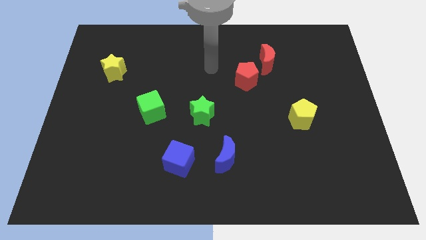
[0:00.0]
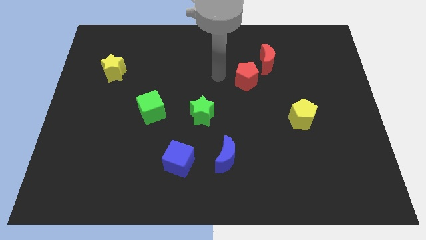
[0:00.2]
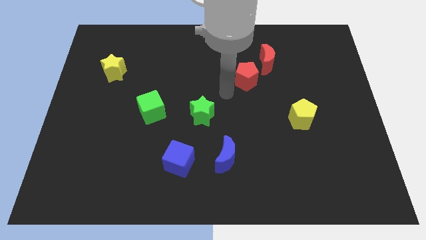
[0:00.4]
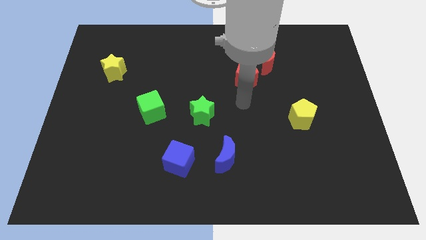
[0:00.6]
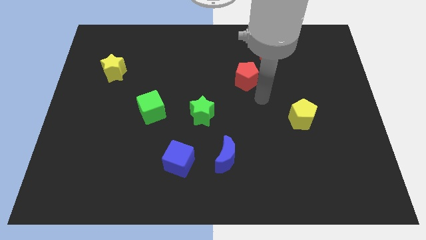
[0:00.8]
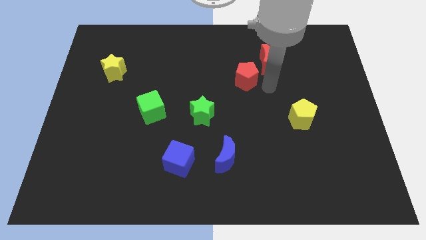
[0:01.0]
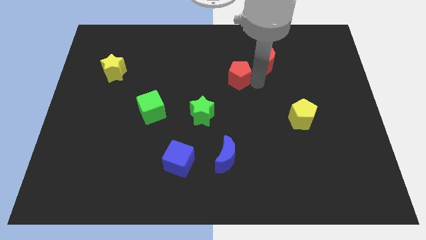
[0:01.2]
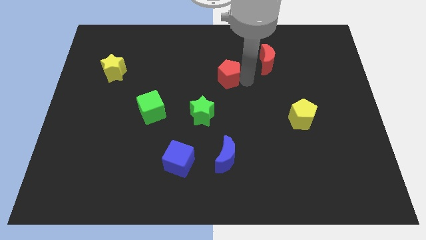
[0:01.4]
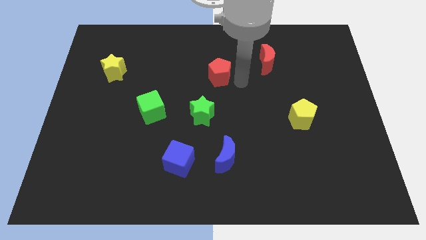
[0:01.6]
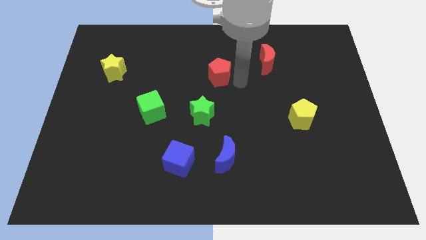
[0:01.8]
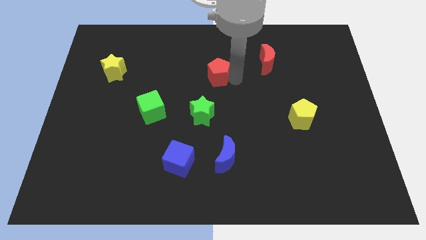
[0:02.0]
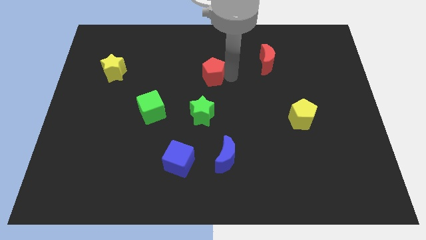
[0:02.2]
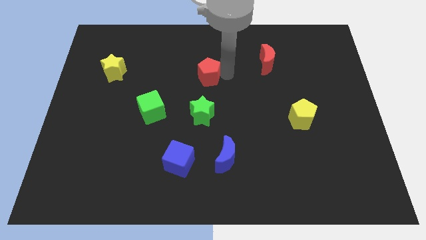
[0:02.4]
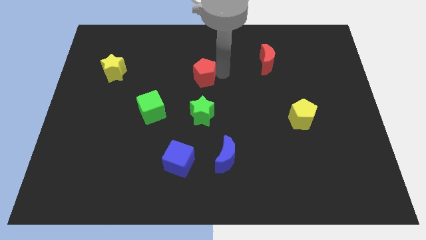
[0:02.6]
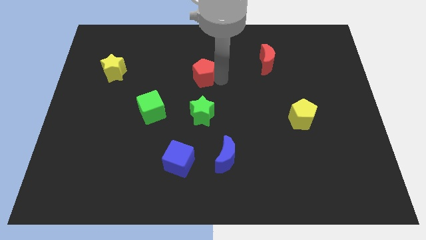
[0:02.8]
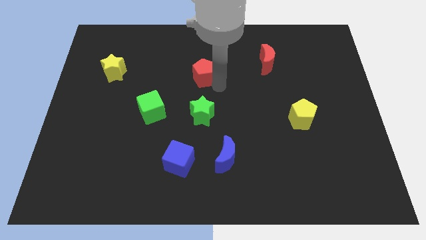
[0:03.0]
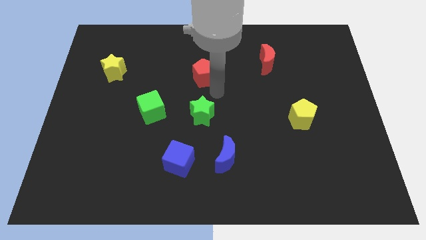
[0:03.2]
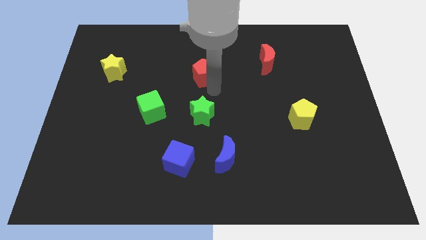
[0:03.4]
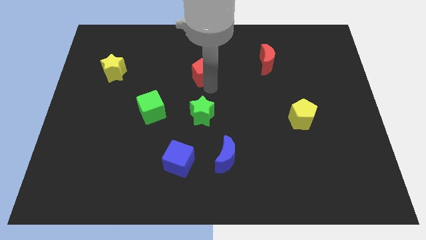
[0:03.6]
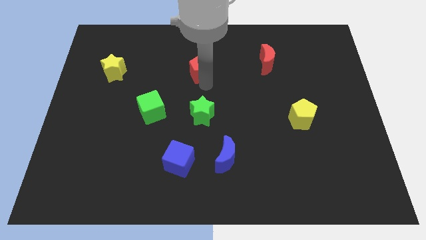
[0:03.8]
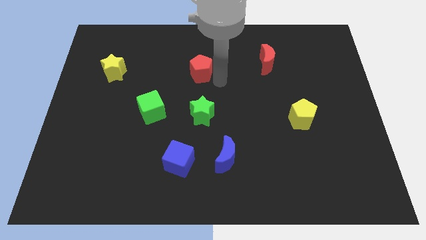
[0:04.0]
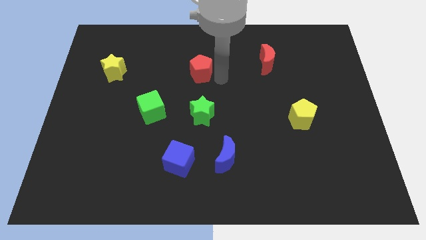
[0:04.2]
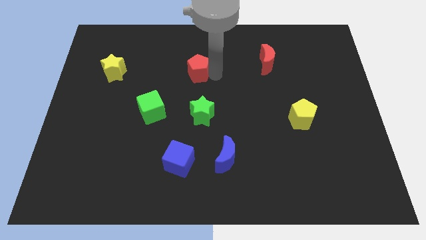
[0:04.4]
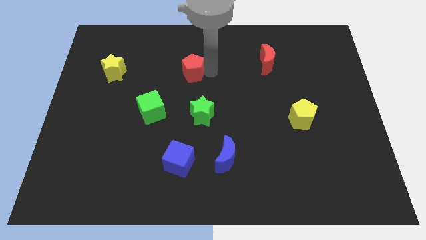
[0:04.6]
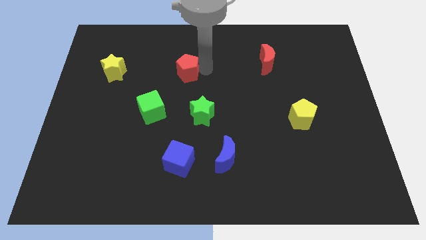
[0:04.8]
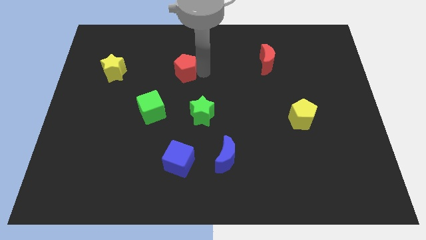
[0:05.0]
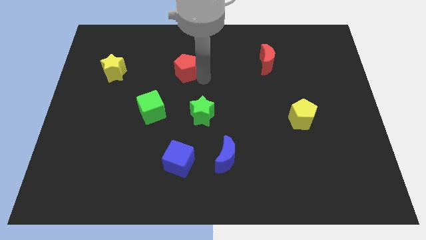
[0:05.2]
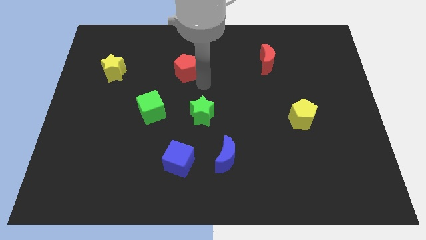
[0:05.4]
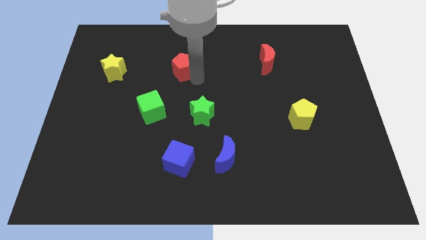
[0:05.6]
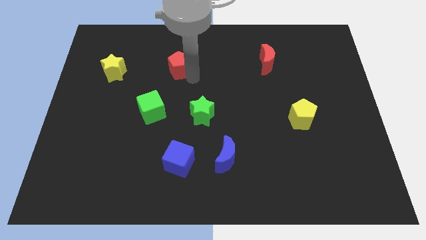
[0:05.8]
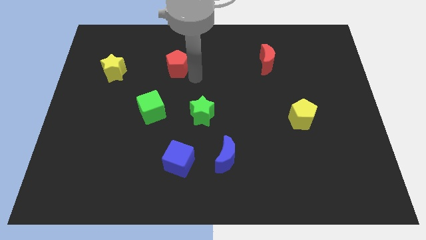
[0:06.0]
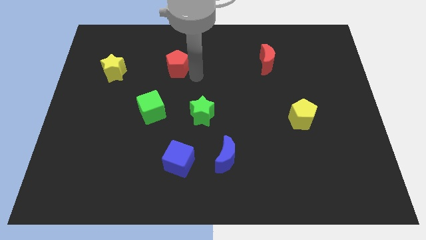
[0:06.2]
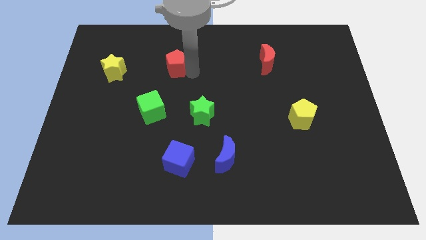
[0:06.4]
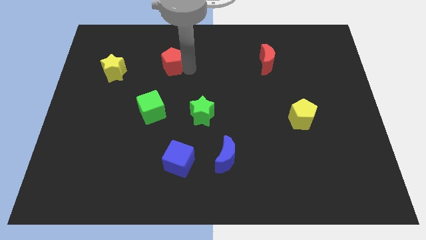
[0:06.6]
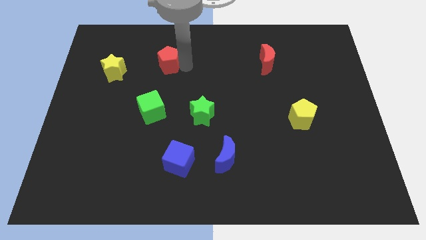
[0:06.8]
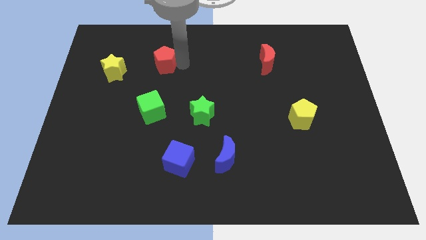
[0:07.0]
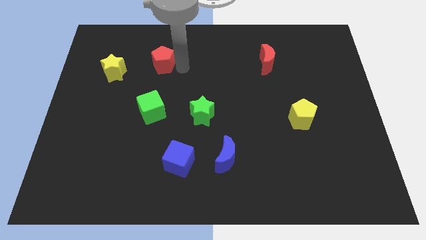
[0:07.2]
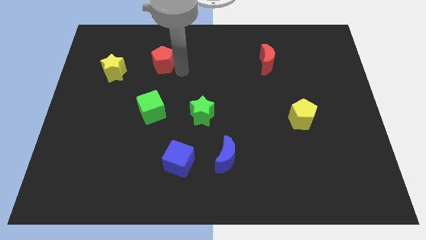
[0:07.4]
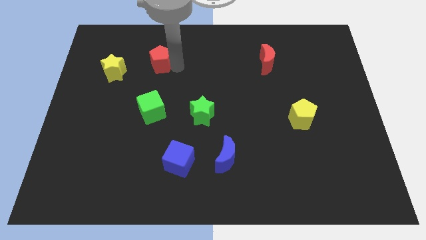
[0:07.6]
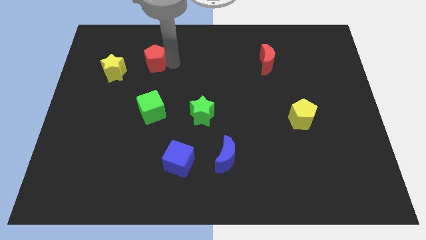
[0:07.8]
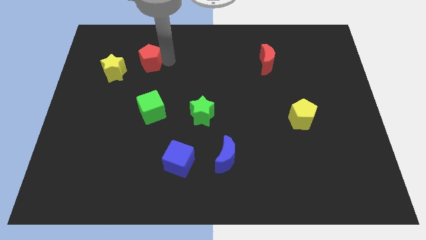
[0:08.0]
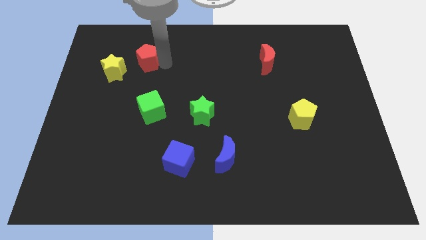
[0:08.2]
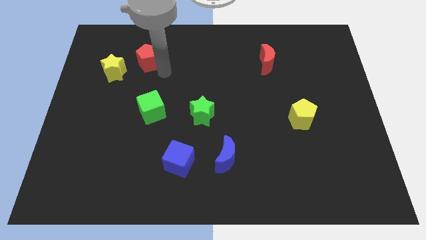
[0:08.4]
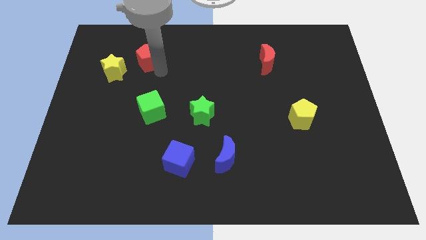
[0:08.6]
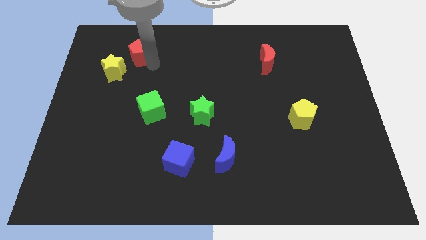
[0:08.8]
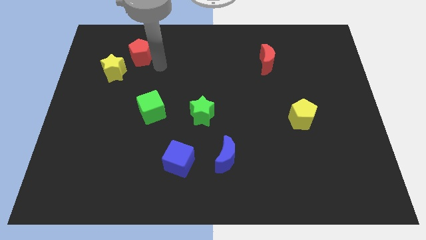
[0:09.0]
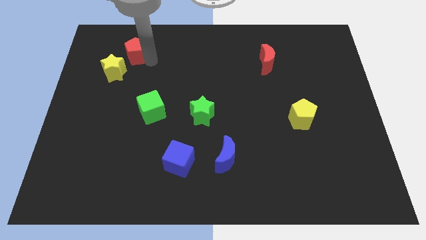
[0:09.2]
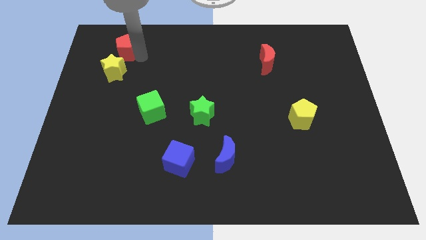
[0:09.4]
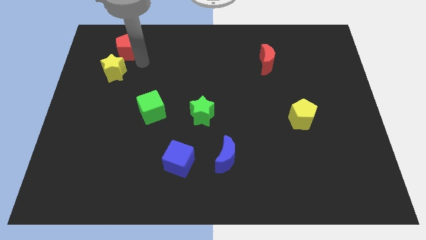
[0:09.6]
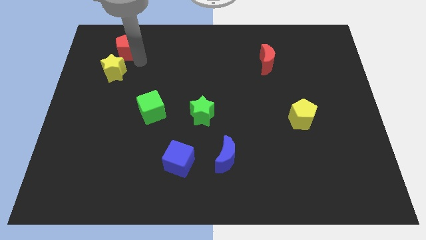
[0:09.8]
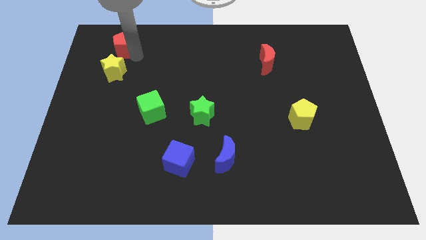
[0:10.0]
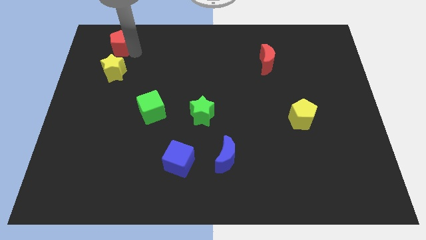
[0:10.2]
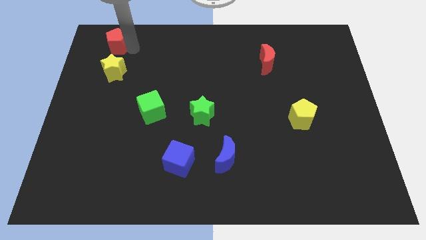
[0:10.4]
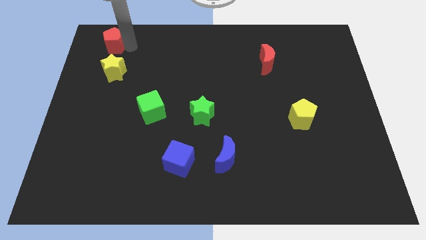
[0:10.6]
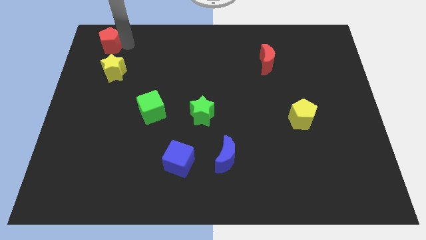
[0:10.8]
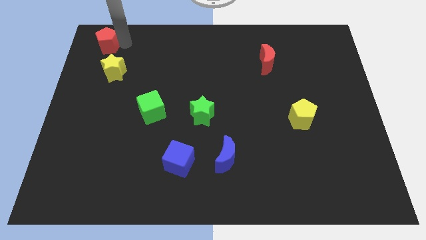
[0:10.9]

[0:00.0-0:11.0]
slide the red pentagon to the top left of the board

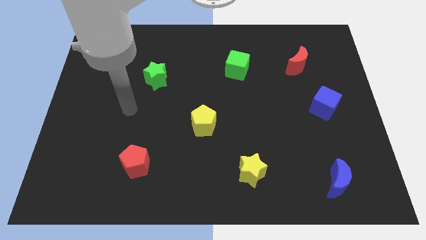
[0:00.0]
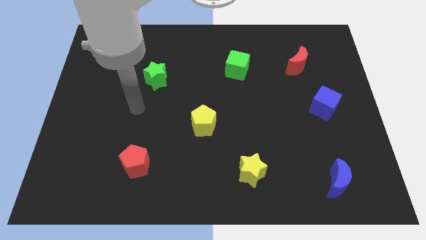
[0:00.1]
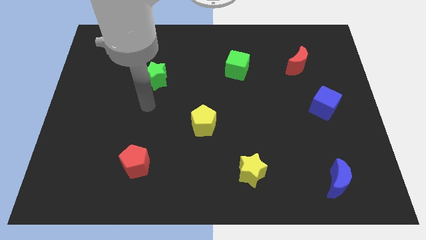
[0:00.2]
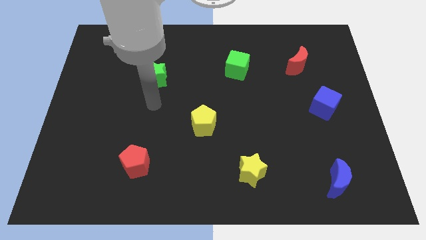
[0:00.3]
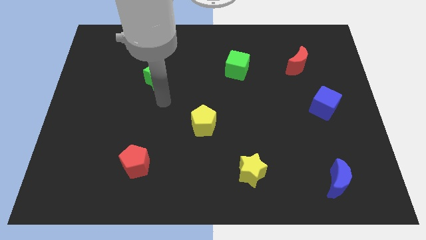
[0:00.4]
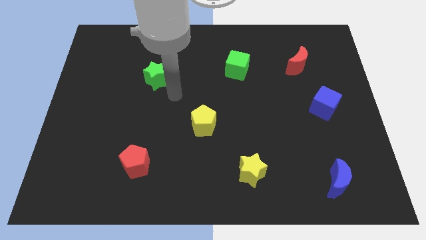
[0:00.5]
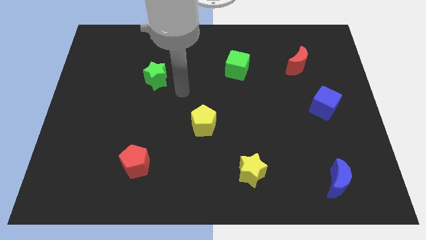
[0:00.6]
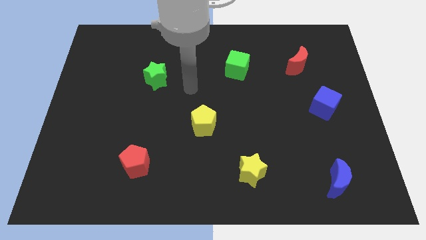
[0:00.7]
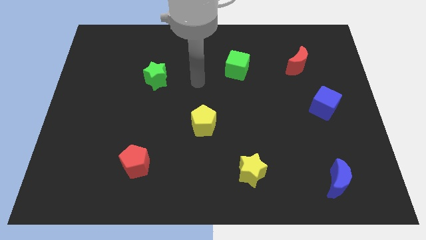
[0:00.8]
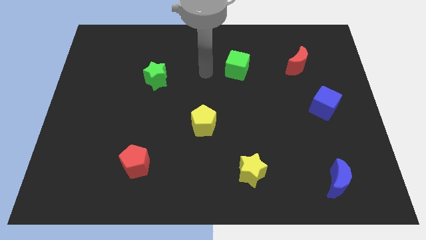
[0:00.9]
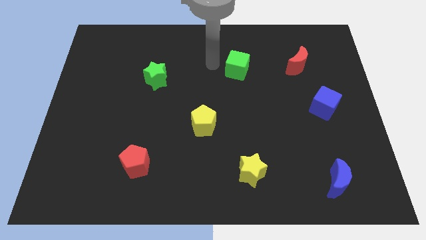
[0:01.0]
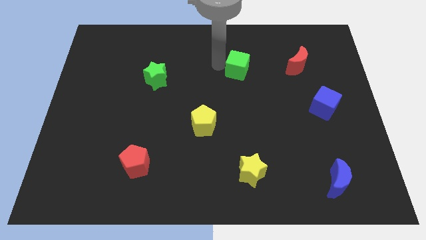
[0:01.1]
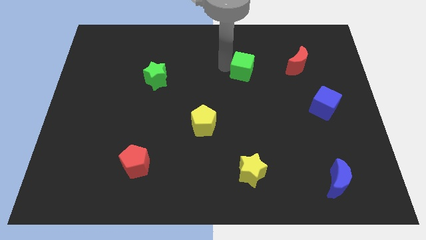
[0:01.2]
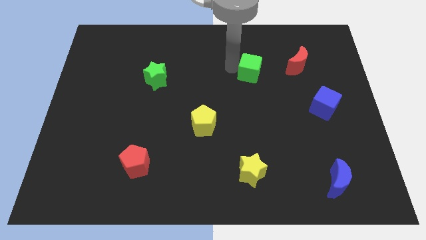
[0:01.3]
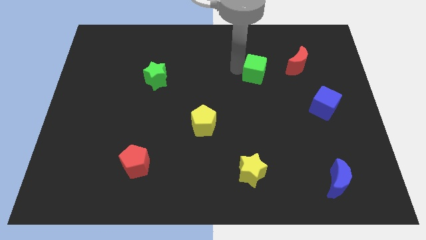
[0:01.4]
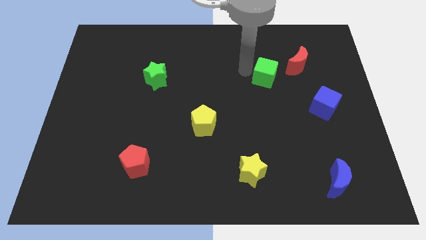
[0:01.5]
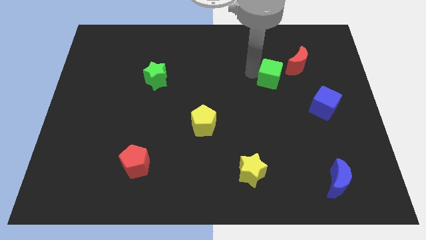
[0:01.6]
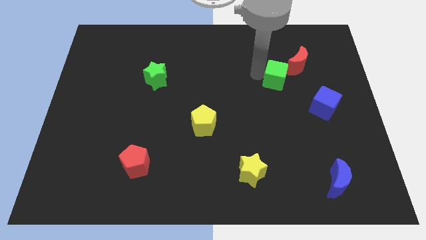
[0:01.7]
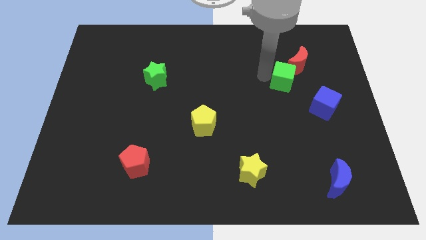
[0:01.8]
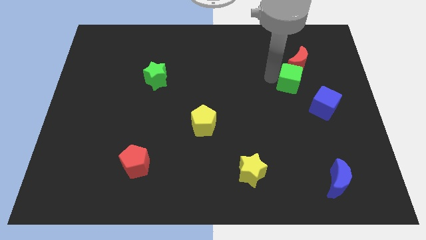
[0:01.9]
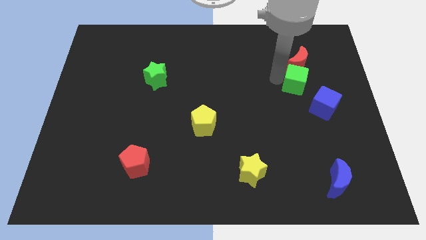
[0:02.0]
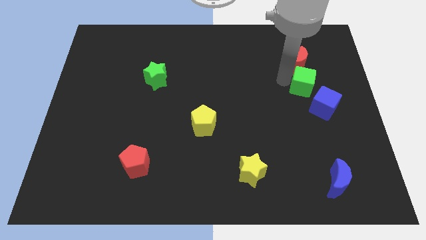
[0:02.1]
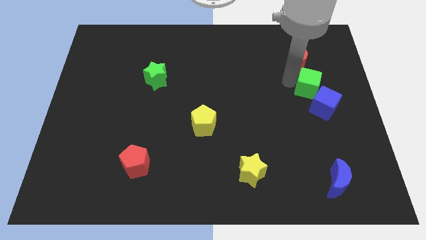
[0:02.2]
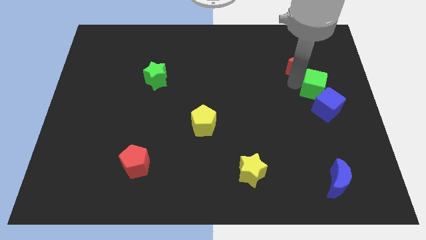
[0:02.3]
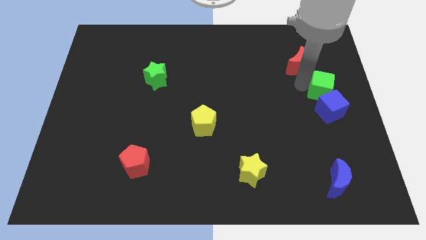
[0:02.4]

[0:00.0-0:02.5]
push the green cube to the center right
